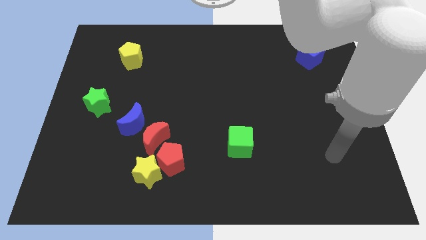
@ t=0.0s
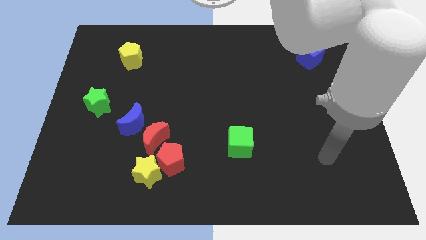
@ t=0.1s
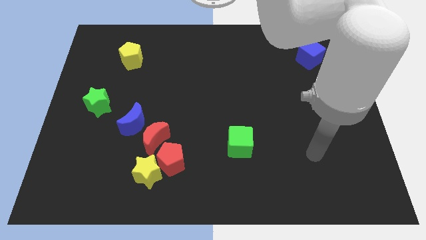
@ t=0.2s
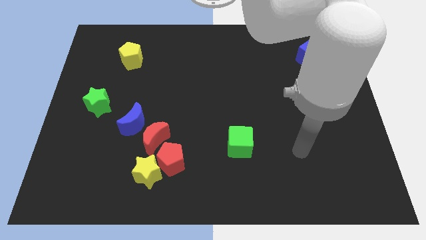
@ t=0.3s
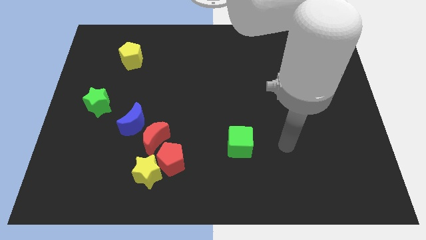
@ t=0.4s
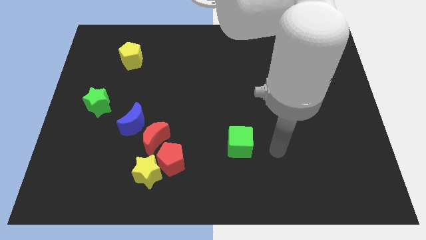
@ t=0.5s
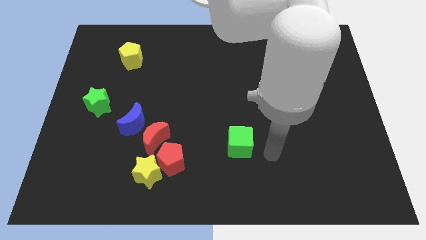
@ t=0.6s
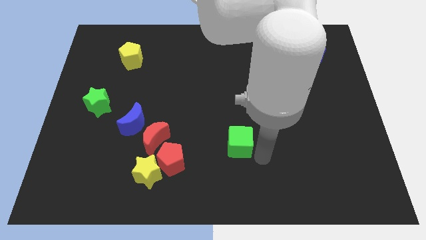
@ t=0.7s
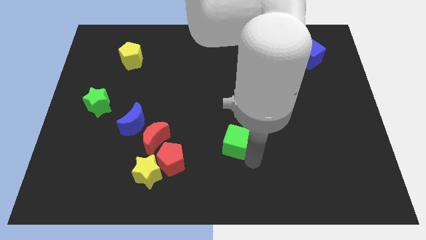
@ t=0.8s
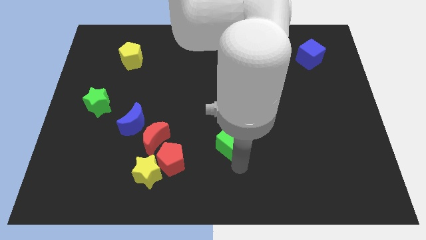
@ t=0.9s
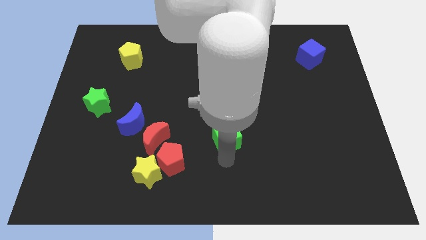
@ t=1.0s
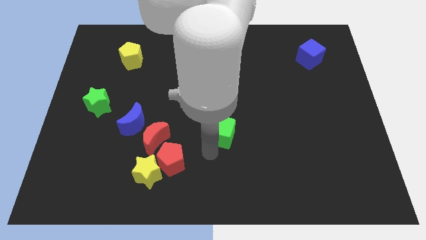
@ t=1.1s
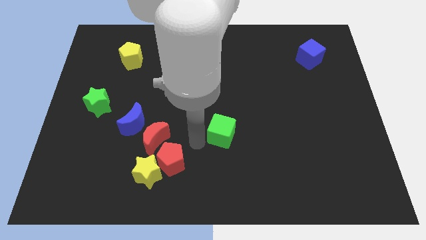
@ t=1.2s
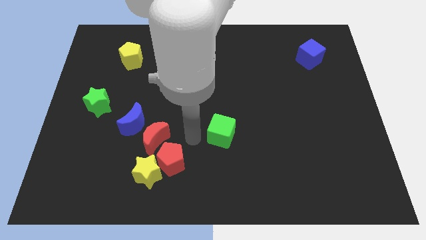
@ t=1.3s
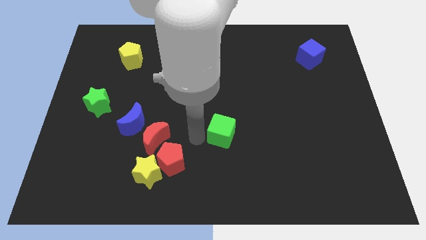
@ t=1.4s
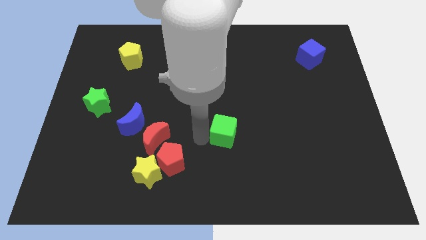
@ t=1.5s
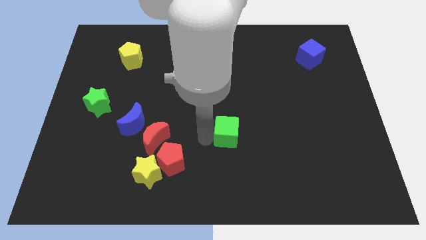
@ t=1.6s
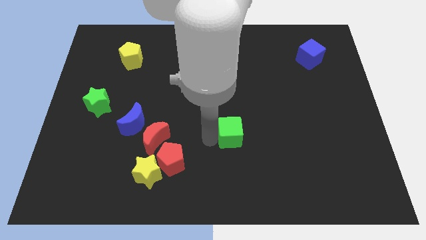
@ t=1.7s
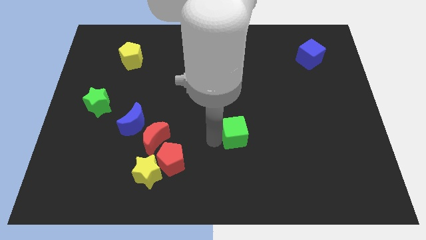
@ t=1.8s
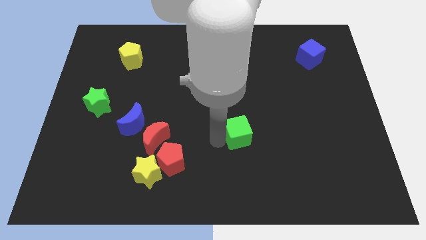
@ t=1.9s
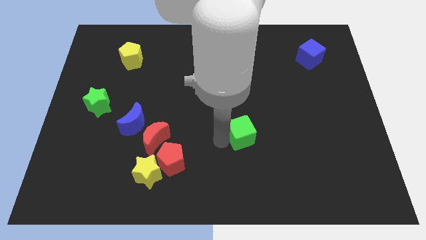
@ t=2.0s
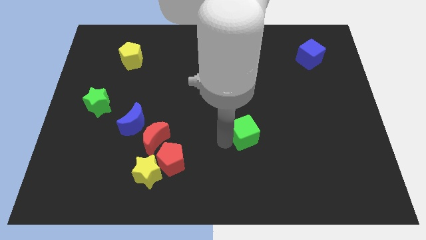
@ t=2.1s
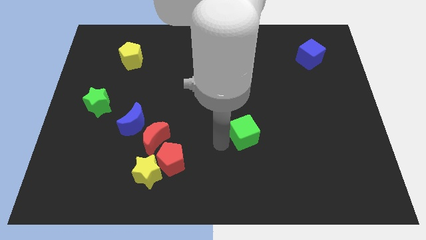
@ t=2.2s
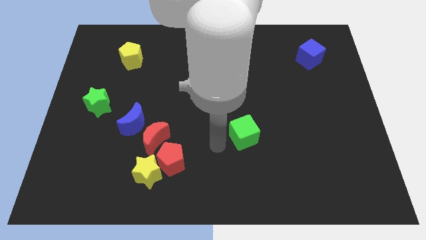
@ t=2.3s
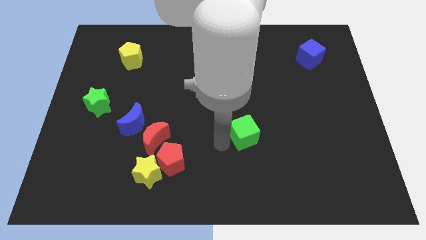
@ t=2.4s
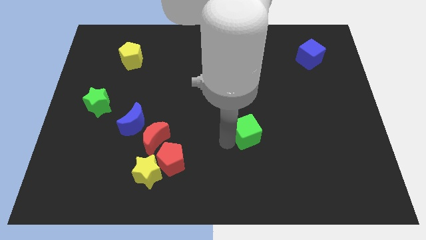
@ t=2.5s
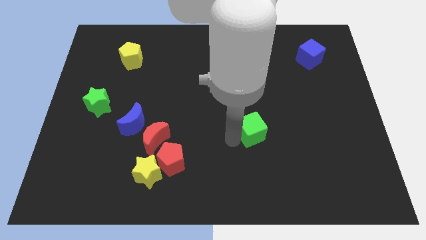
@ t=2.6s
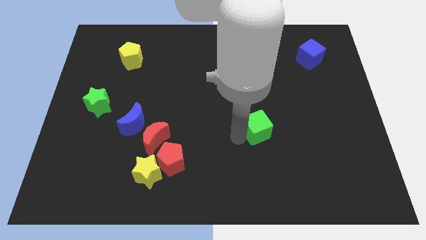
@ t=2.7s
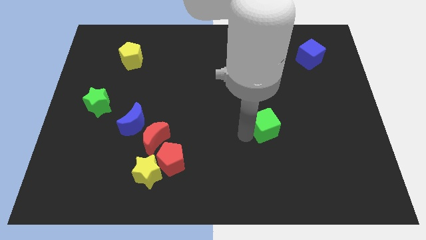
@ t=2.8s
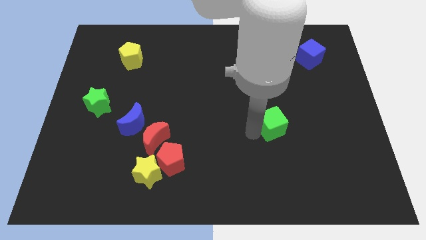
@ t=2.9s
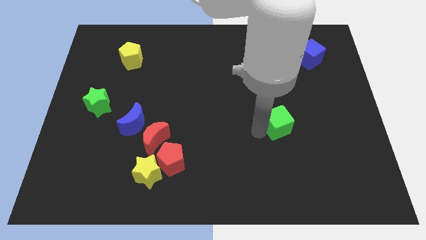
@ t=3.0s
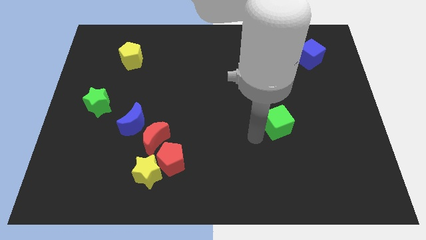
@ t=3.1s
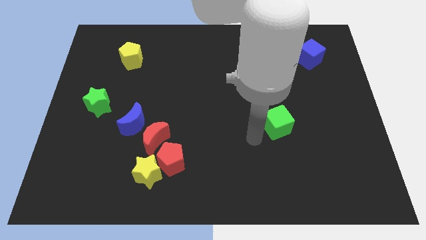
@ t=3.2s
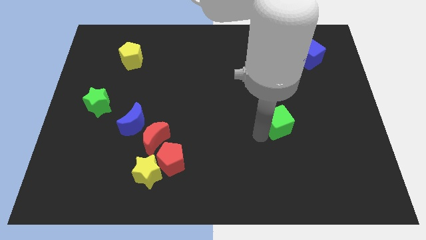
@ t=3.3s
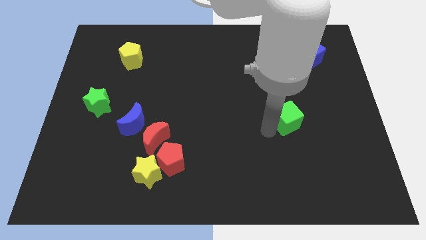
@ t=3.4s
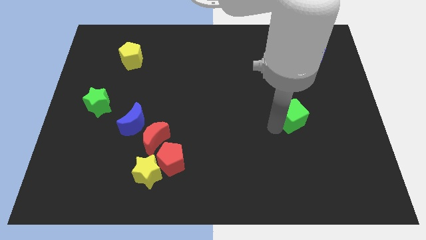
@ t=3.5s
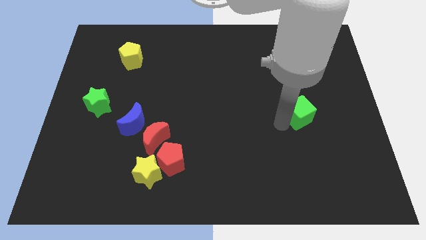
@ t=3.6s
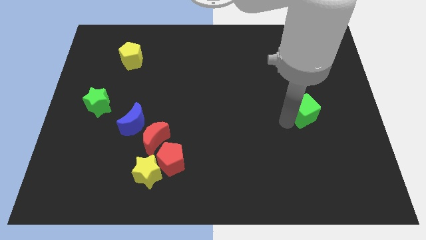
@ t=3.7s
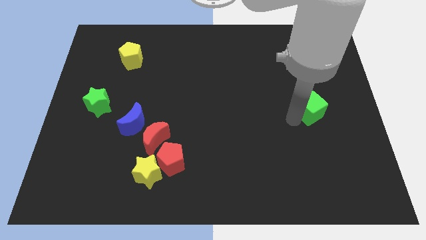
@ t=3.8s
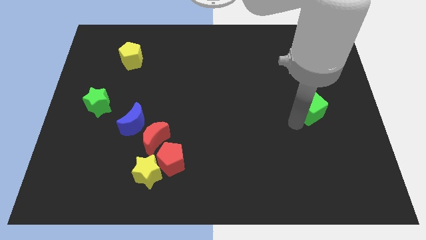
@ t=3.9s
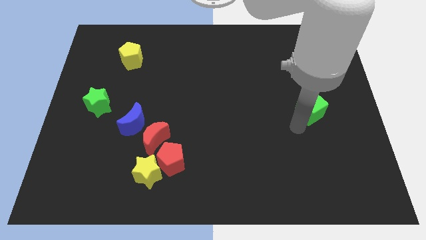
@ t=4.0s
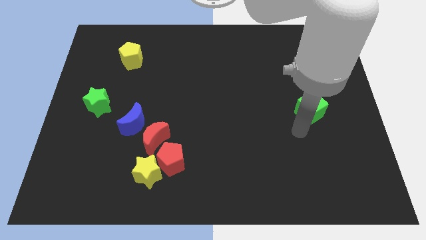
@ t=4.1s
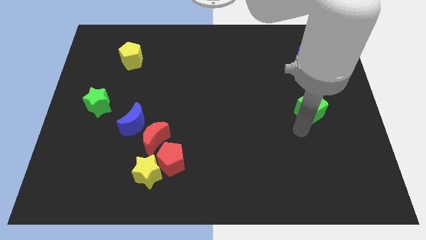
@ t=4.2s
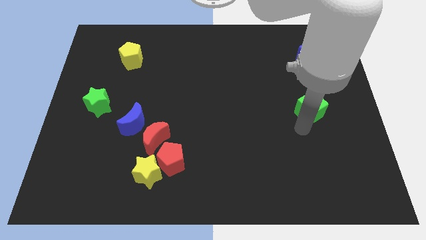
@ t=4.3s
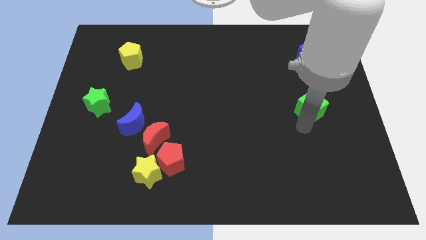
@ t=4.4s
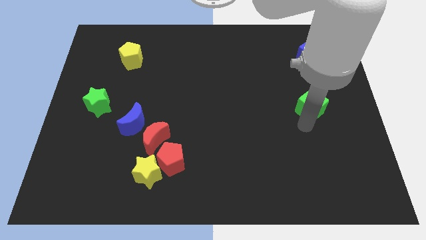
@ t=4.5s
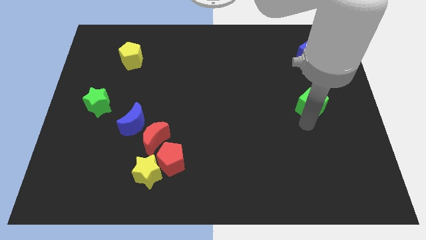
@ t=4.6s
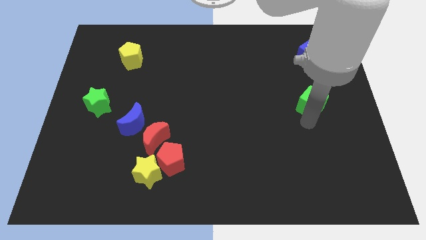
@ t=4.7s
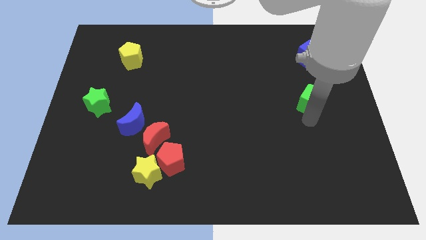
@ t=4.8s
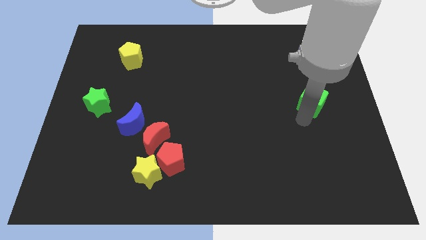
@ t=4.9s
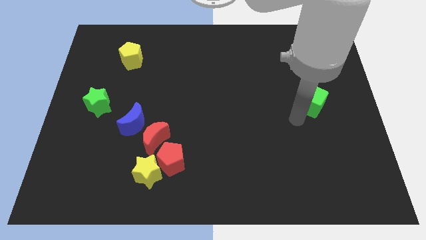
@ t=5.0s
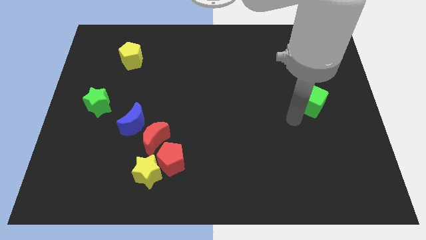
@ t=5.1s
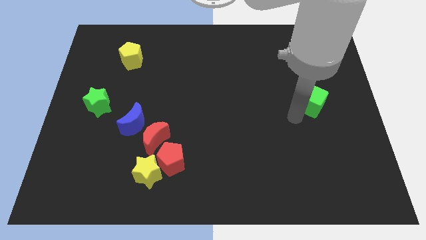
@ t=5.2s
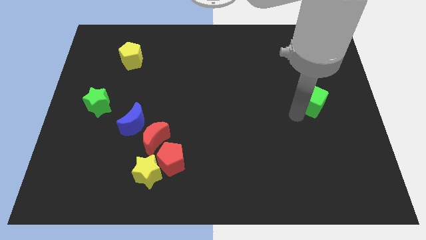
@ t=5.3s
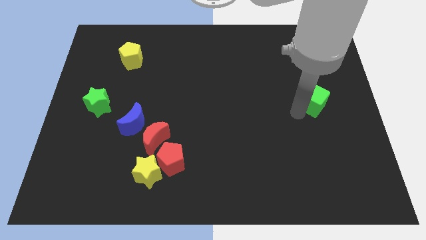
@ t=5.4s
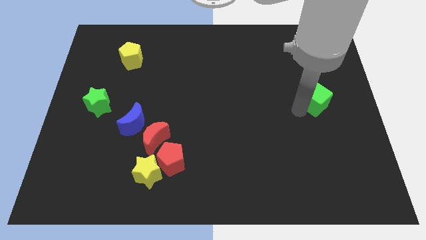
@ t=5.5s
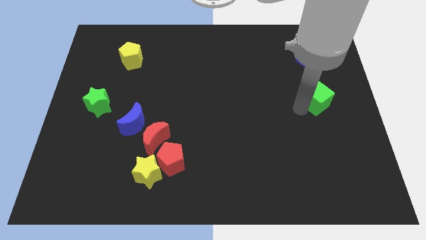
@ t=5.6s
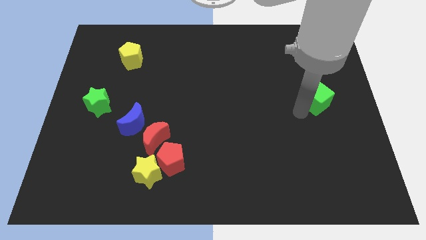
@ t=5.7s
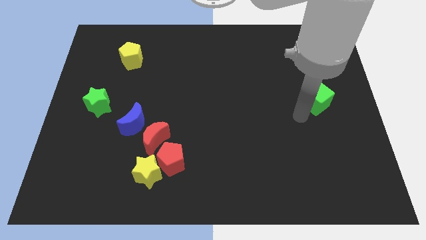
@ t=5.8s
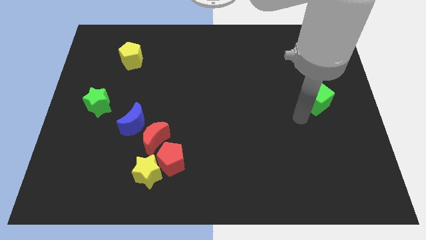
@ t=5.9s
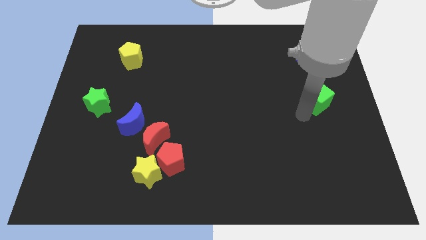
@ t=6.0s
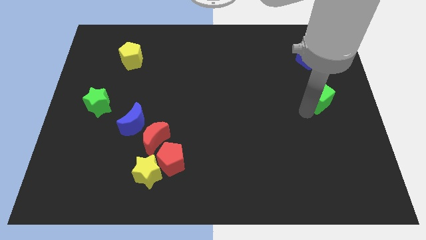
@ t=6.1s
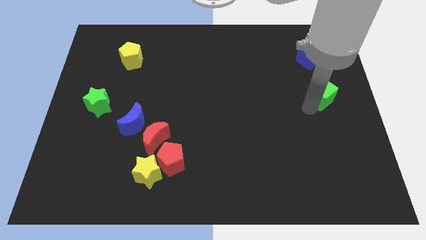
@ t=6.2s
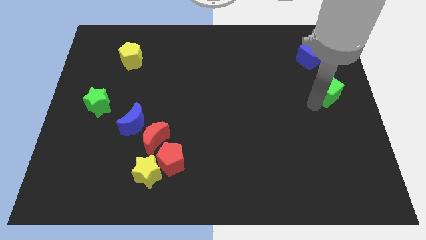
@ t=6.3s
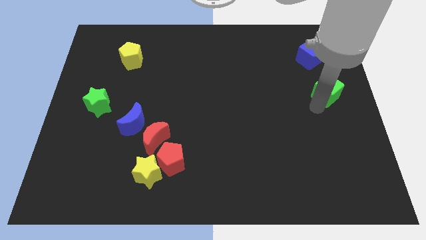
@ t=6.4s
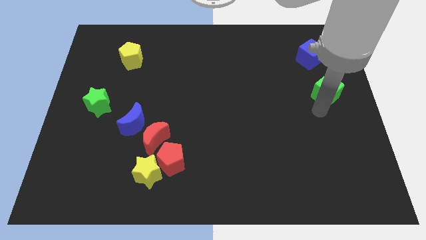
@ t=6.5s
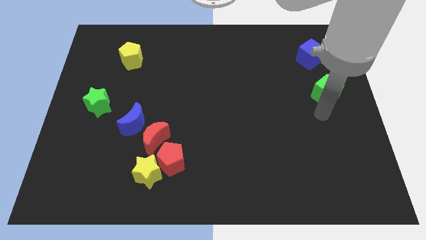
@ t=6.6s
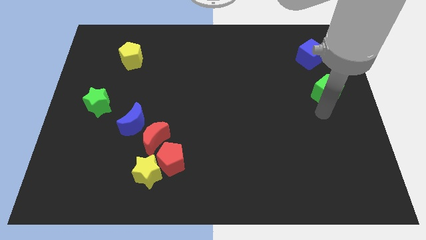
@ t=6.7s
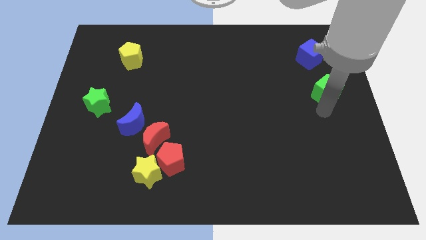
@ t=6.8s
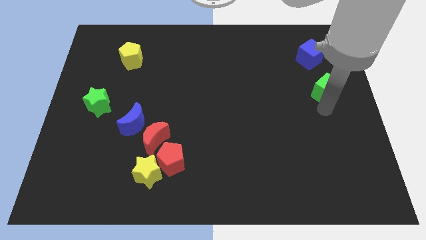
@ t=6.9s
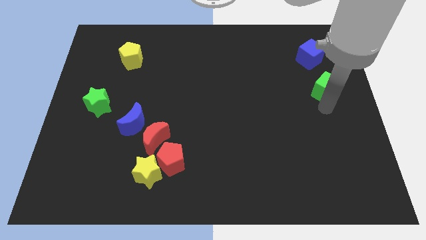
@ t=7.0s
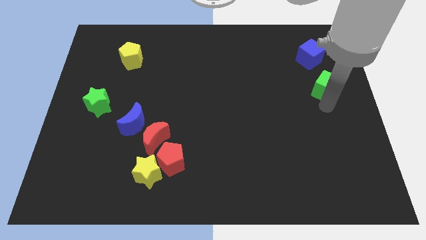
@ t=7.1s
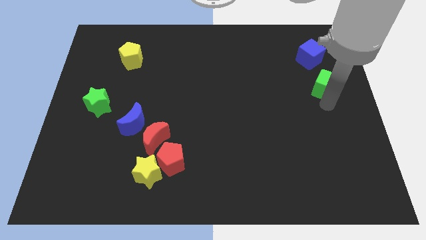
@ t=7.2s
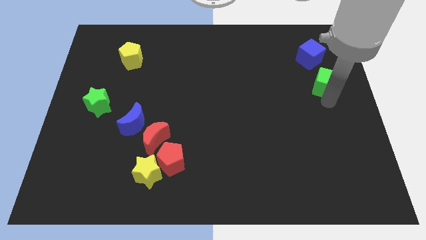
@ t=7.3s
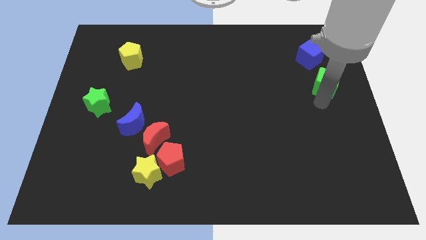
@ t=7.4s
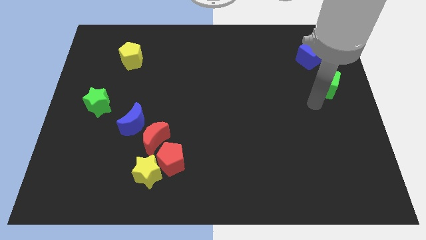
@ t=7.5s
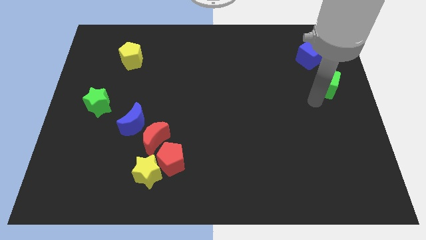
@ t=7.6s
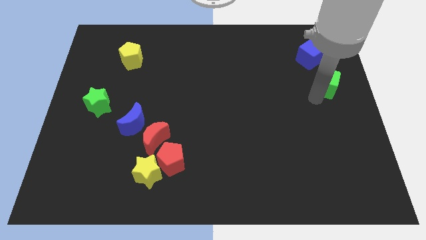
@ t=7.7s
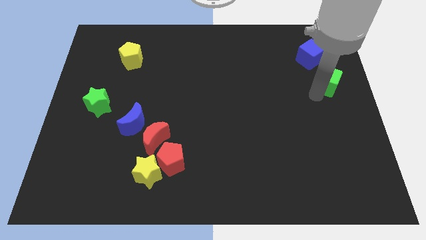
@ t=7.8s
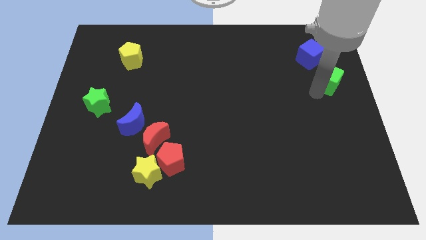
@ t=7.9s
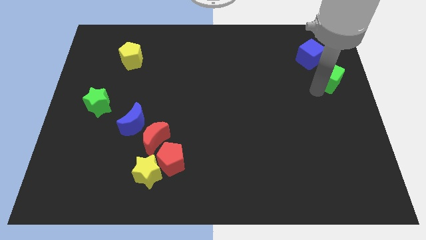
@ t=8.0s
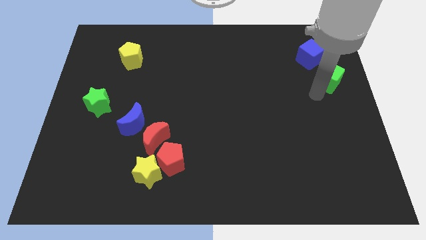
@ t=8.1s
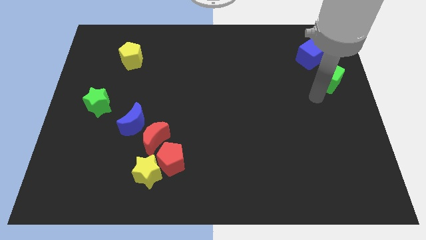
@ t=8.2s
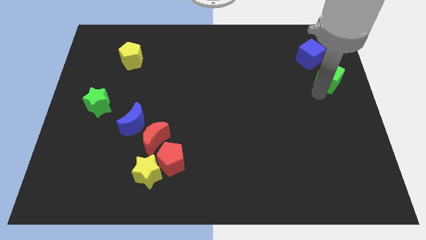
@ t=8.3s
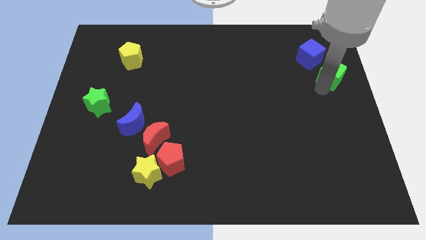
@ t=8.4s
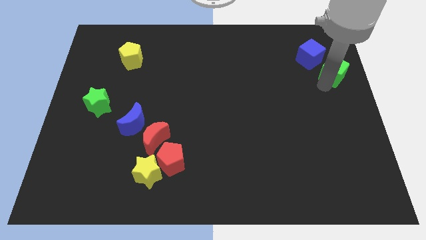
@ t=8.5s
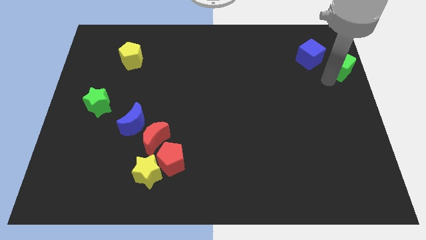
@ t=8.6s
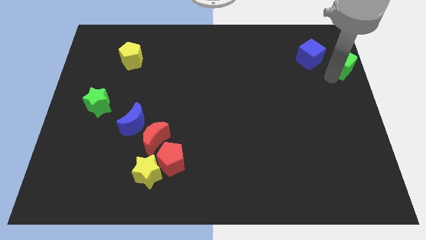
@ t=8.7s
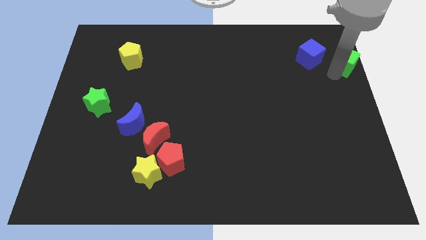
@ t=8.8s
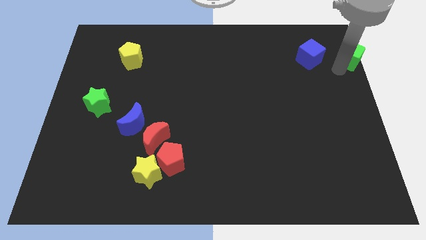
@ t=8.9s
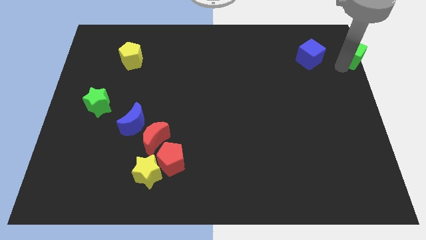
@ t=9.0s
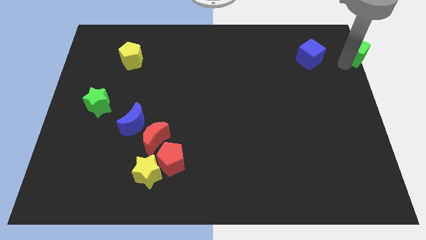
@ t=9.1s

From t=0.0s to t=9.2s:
move the green cube to the upper right corner
